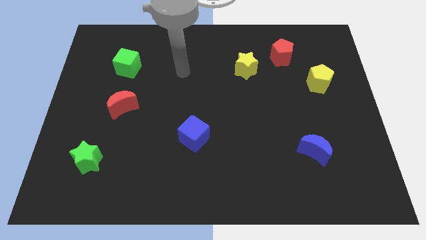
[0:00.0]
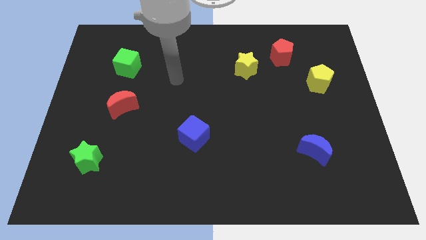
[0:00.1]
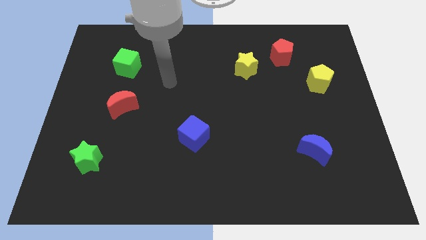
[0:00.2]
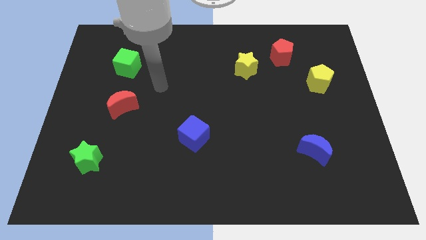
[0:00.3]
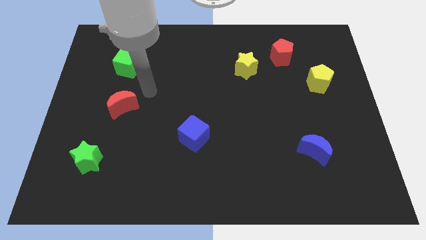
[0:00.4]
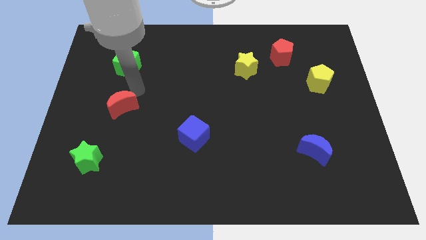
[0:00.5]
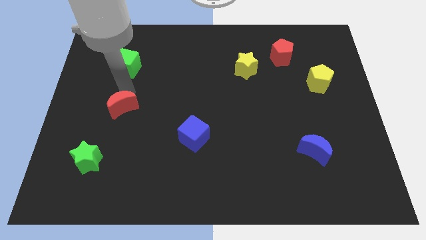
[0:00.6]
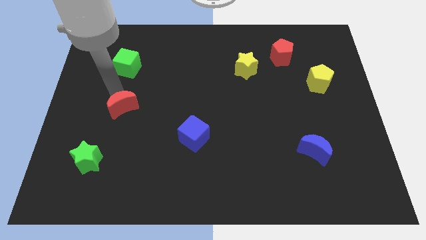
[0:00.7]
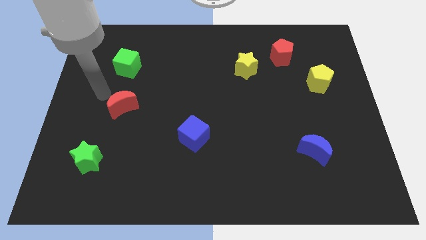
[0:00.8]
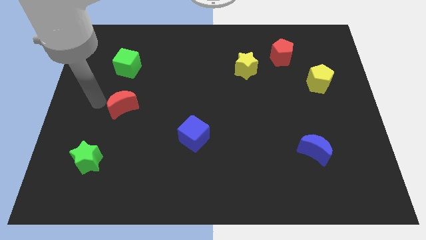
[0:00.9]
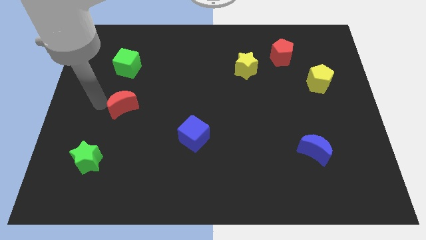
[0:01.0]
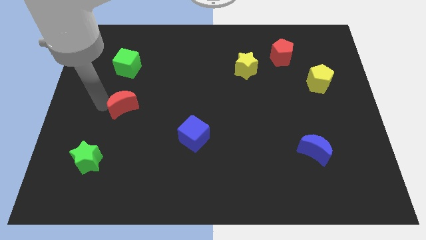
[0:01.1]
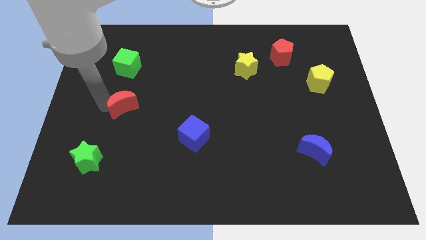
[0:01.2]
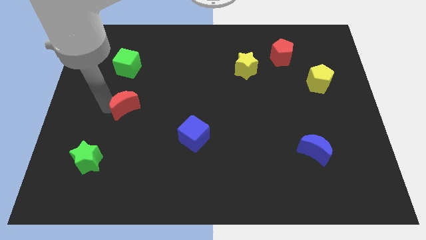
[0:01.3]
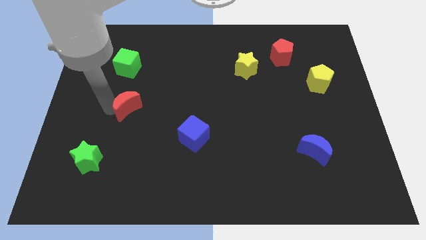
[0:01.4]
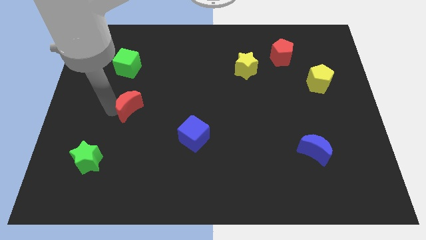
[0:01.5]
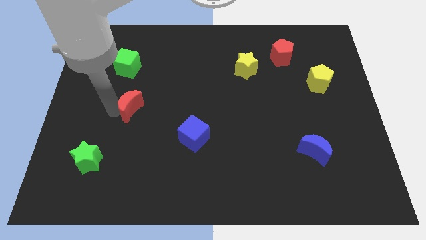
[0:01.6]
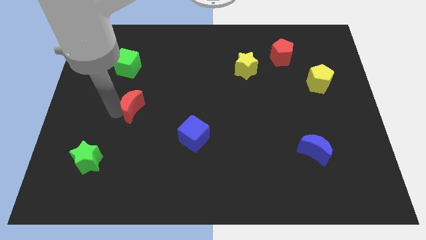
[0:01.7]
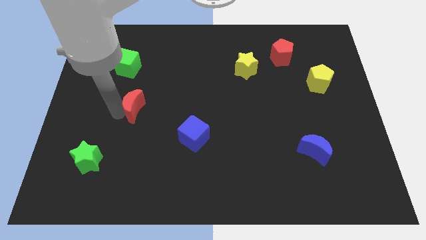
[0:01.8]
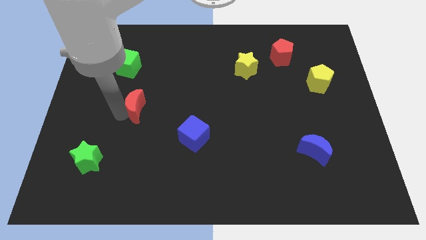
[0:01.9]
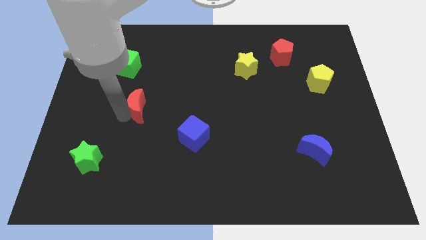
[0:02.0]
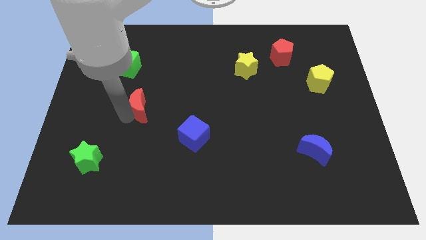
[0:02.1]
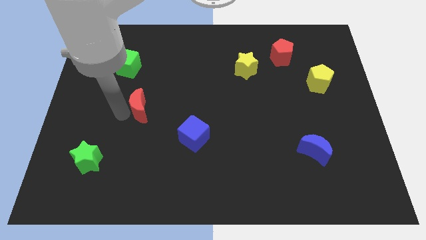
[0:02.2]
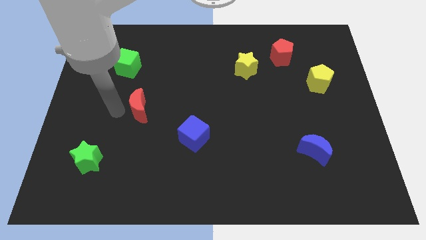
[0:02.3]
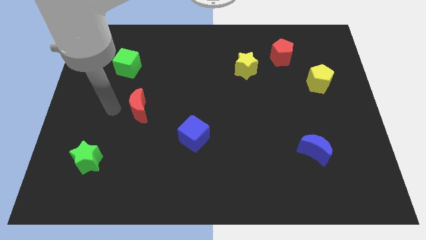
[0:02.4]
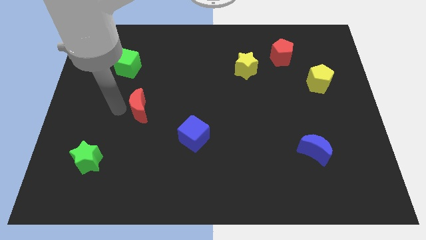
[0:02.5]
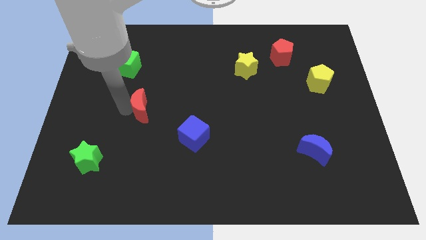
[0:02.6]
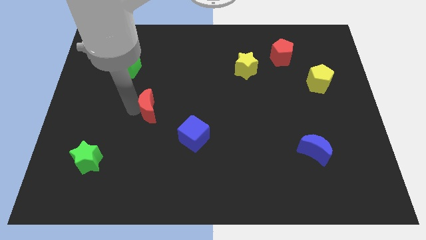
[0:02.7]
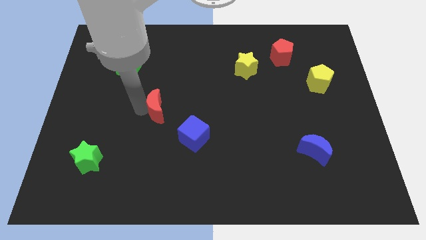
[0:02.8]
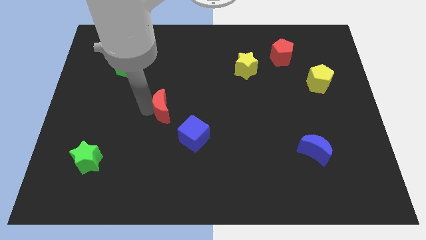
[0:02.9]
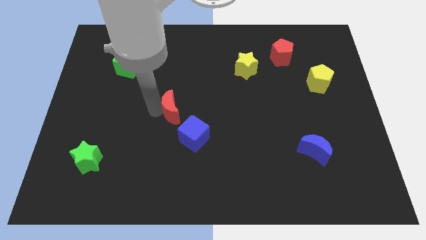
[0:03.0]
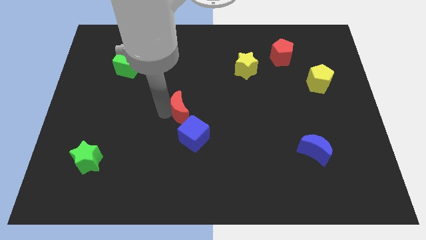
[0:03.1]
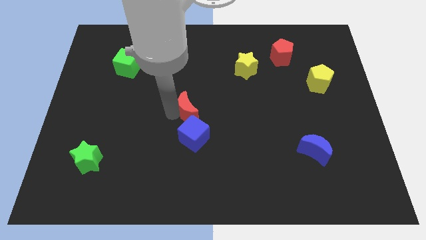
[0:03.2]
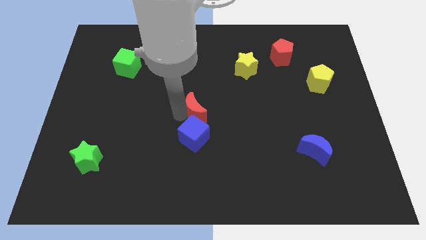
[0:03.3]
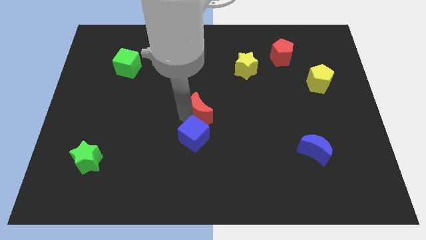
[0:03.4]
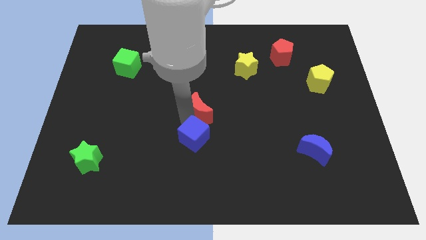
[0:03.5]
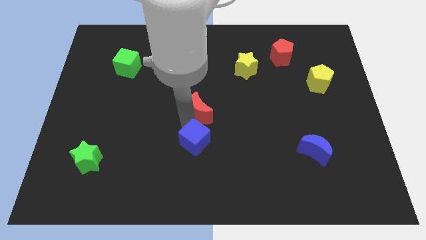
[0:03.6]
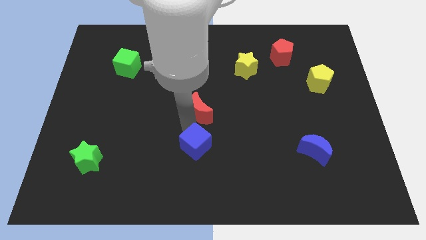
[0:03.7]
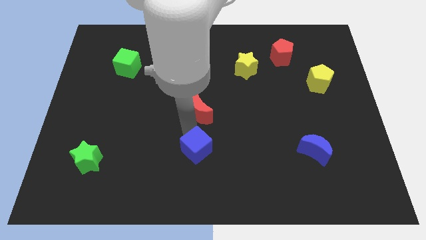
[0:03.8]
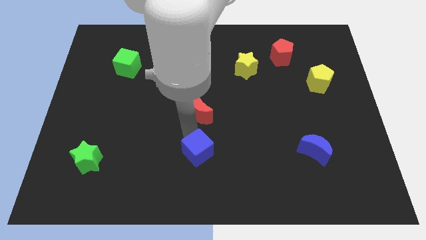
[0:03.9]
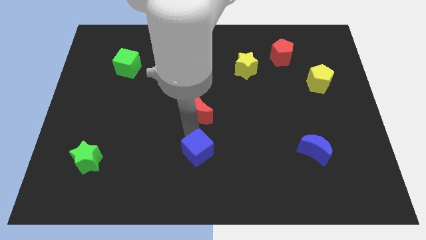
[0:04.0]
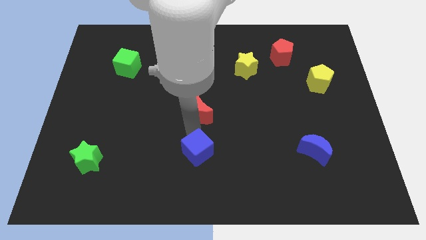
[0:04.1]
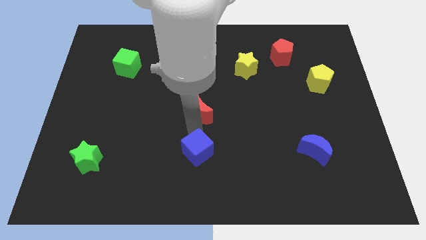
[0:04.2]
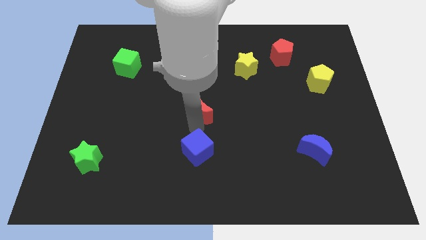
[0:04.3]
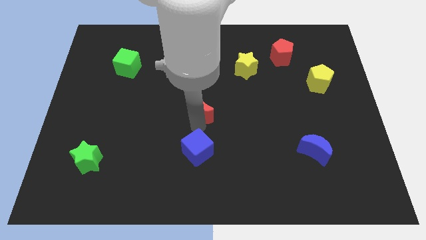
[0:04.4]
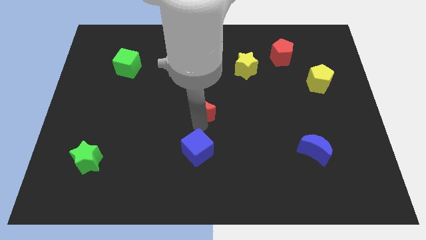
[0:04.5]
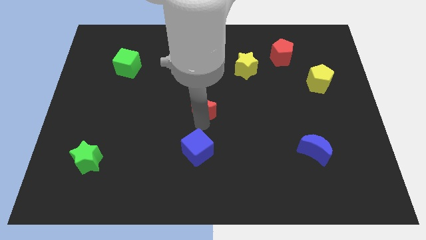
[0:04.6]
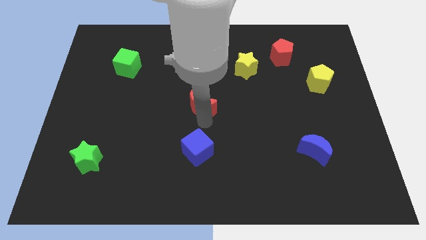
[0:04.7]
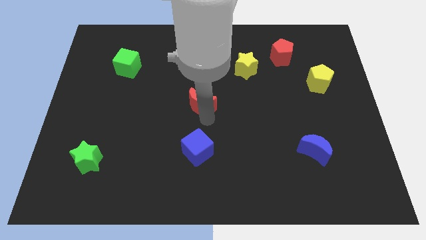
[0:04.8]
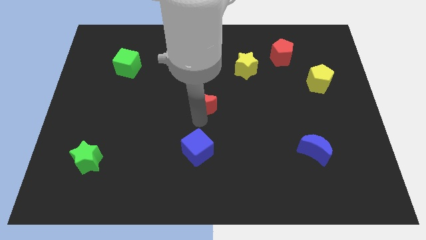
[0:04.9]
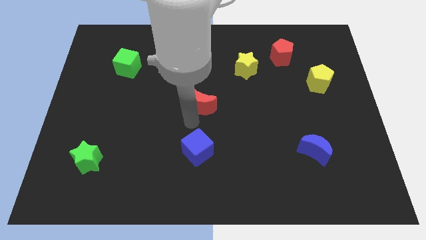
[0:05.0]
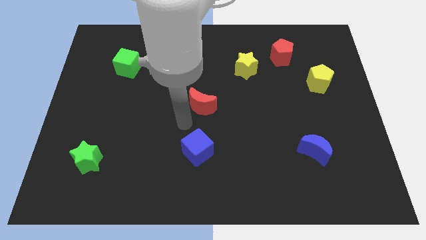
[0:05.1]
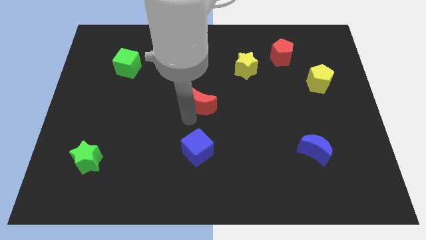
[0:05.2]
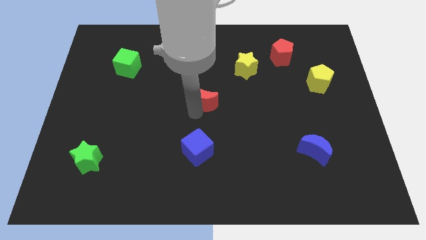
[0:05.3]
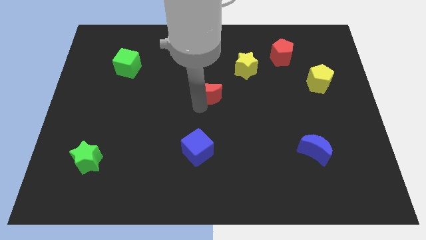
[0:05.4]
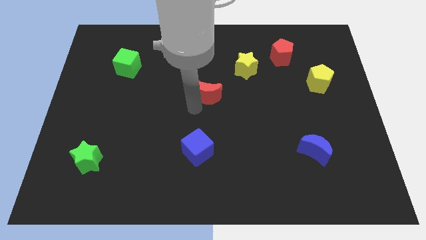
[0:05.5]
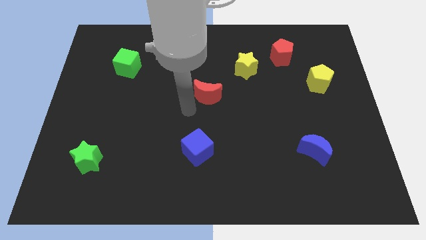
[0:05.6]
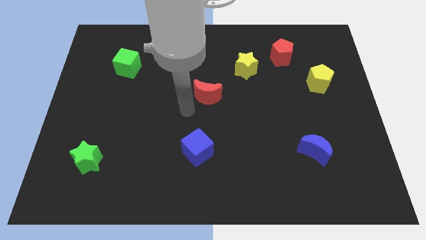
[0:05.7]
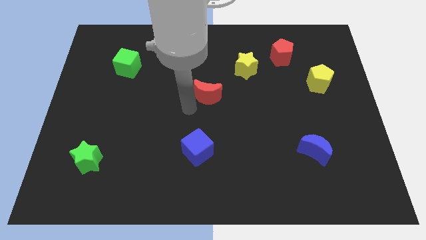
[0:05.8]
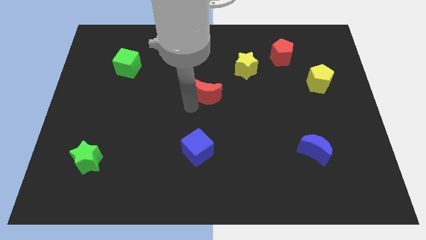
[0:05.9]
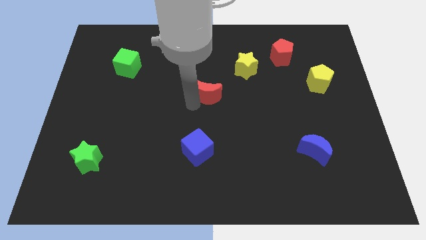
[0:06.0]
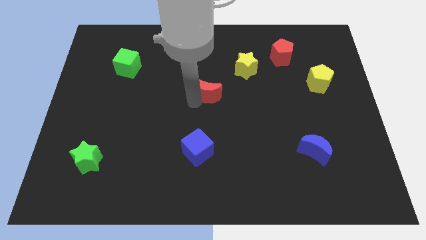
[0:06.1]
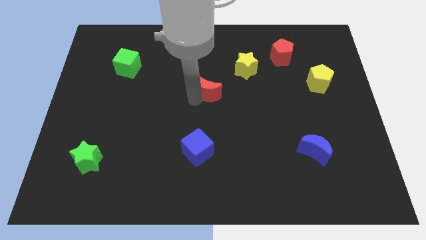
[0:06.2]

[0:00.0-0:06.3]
push the red moon to the bottom left side of the yellow star

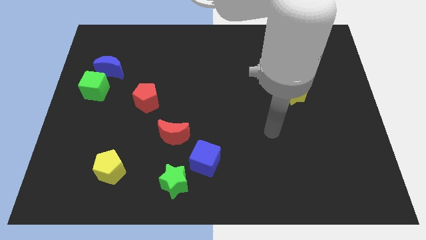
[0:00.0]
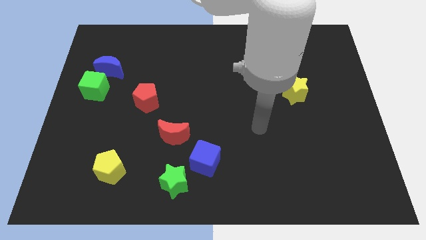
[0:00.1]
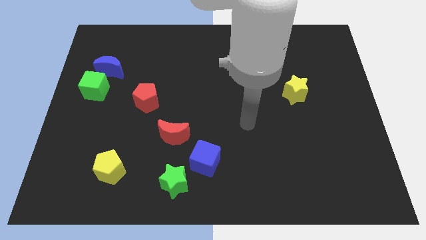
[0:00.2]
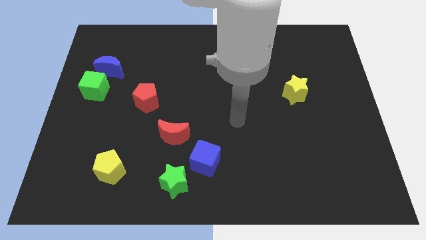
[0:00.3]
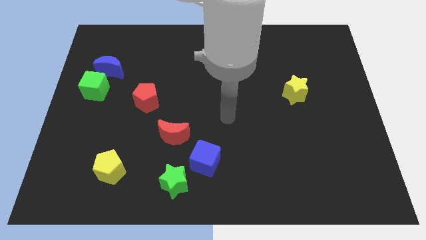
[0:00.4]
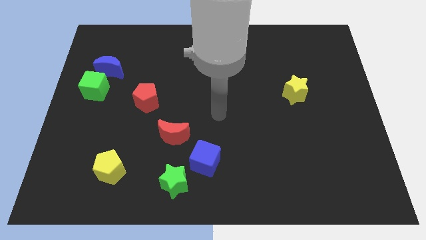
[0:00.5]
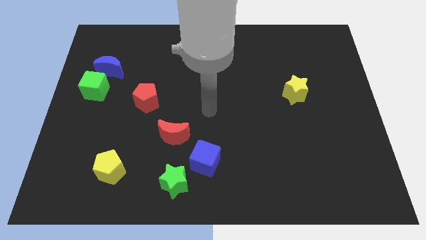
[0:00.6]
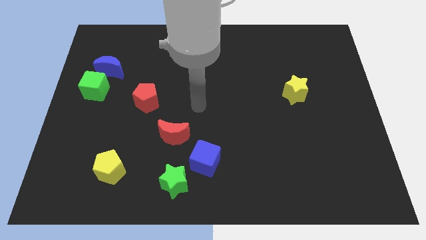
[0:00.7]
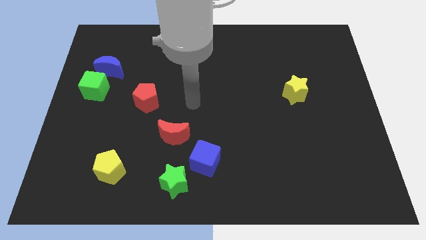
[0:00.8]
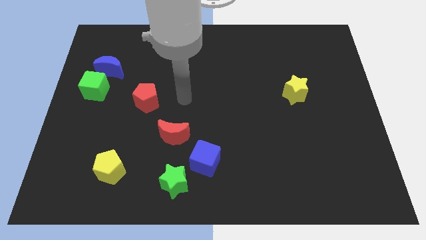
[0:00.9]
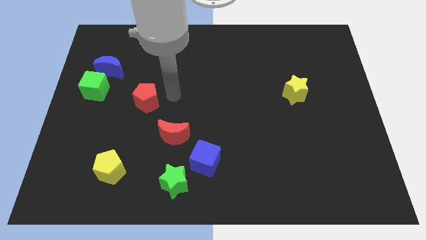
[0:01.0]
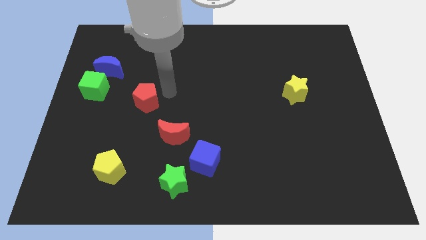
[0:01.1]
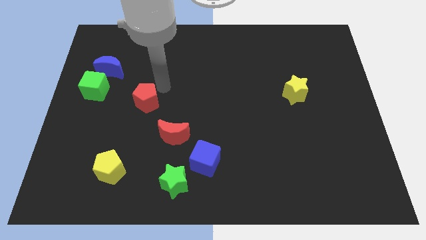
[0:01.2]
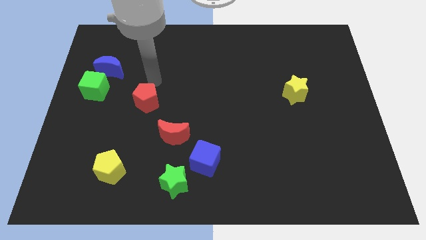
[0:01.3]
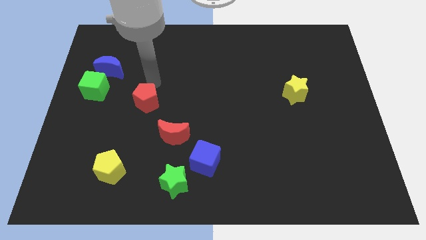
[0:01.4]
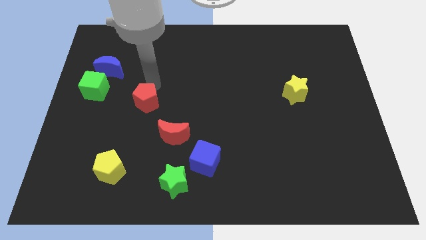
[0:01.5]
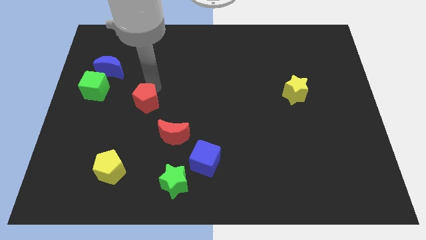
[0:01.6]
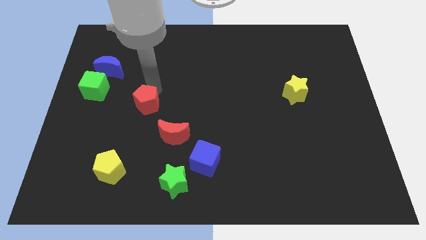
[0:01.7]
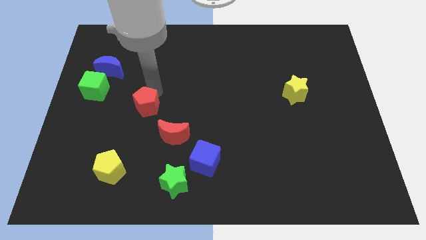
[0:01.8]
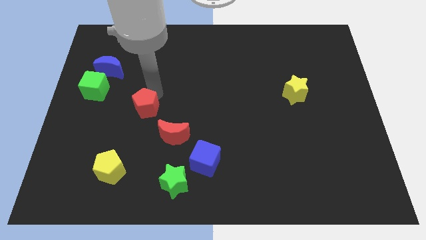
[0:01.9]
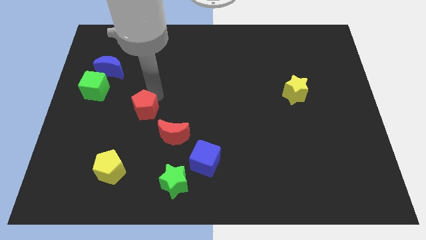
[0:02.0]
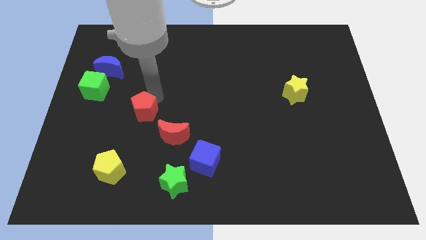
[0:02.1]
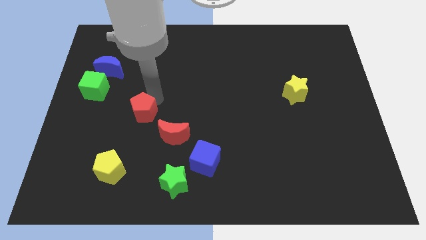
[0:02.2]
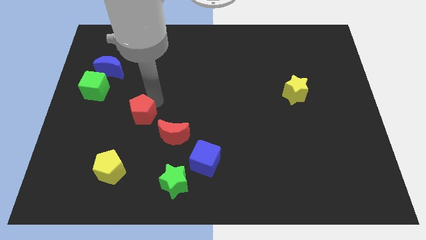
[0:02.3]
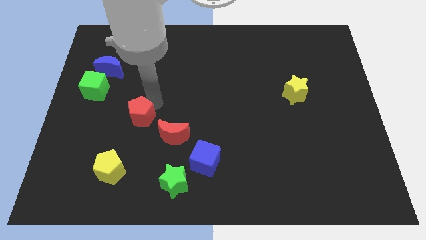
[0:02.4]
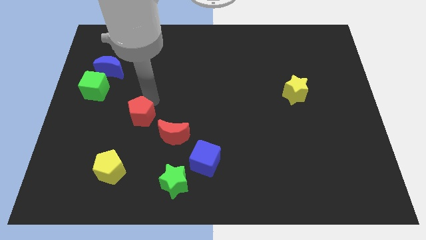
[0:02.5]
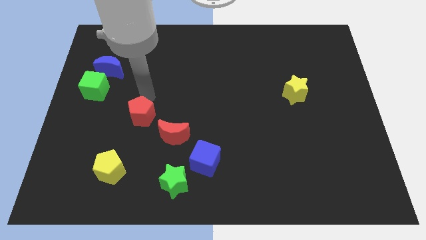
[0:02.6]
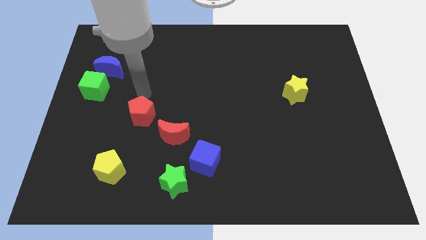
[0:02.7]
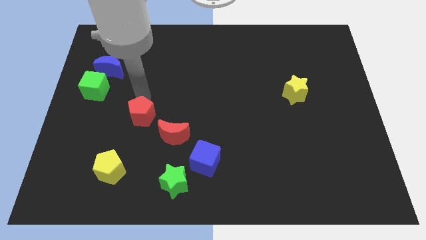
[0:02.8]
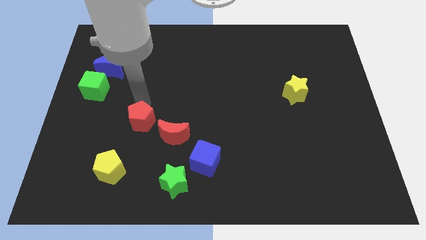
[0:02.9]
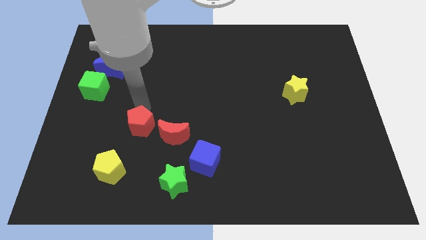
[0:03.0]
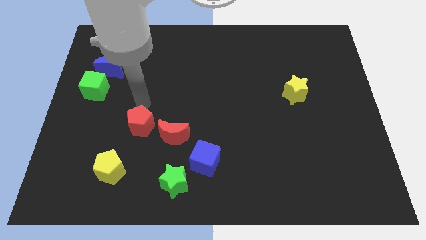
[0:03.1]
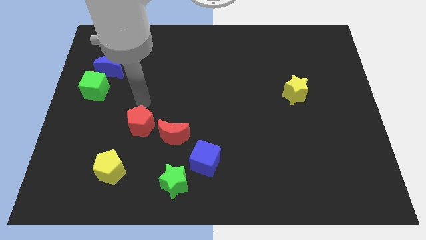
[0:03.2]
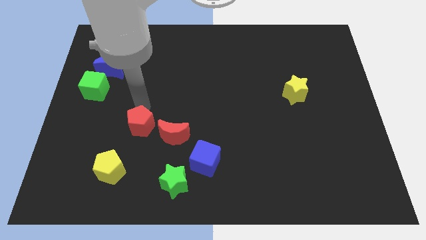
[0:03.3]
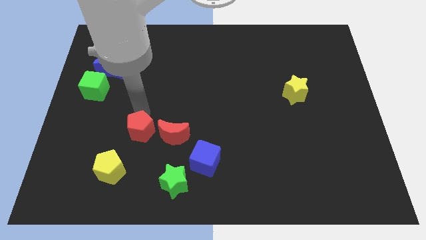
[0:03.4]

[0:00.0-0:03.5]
push the red pentagon diagonally up and to the right of the yellow pentagon
